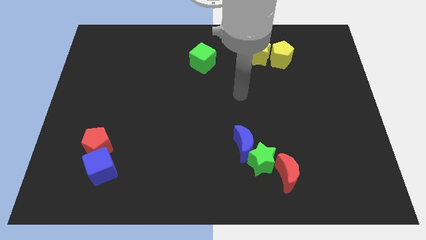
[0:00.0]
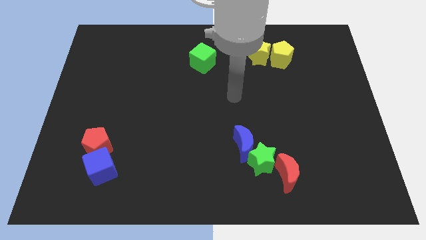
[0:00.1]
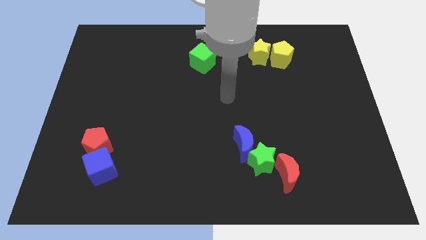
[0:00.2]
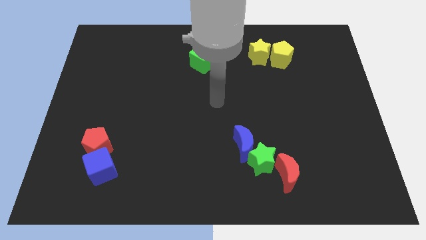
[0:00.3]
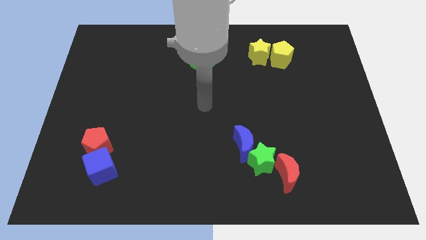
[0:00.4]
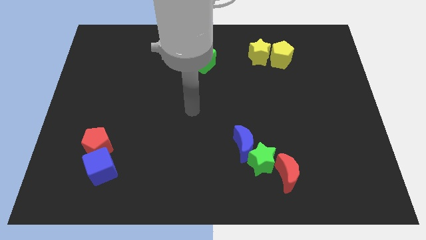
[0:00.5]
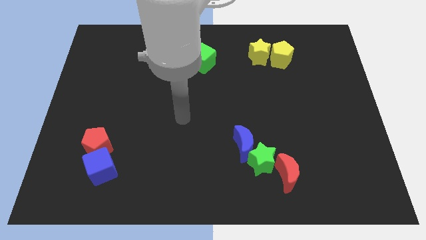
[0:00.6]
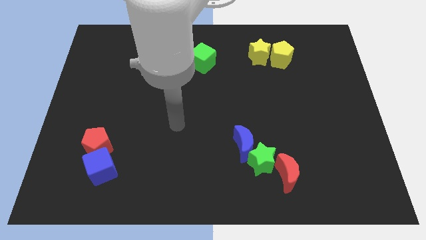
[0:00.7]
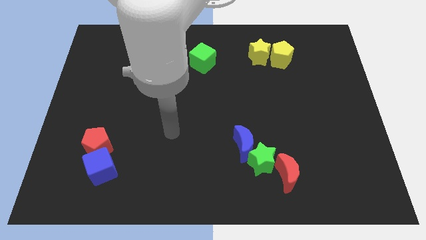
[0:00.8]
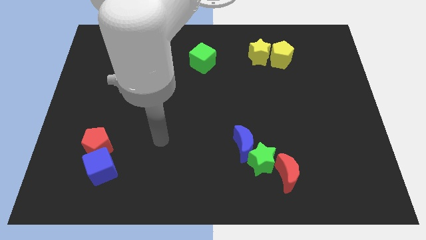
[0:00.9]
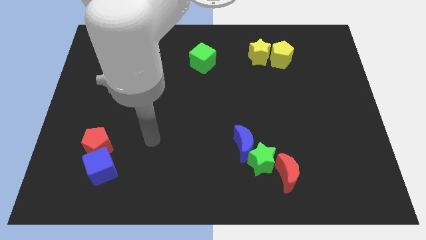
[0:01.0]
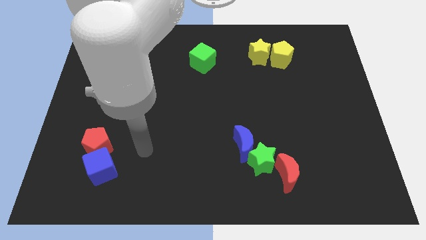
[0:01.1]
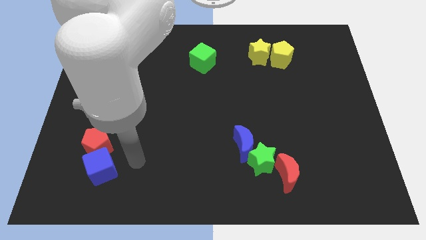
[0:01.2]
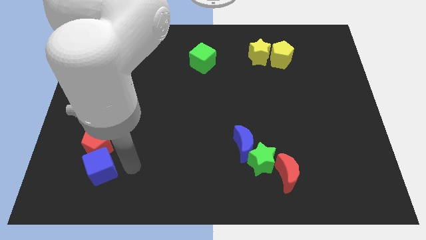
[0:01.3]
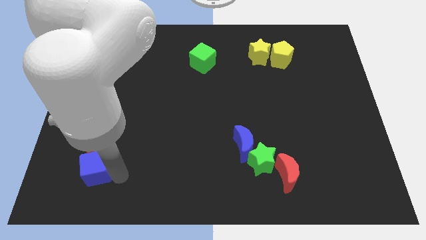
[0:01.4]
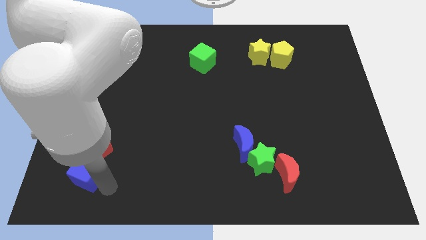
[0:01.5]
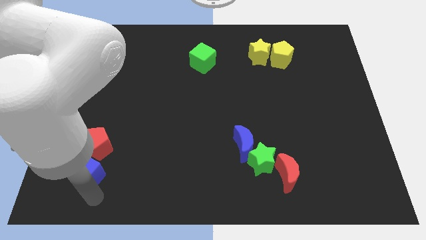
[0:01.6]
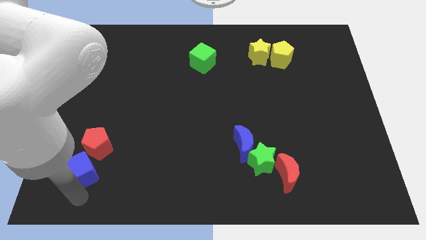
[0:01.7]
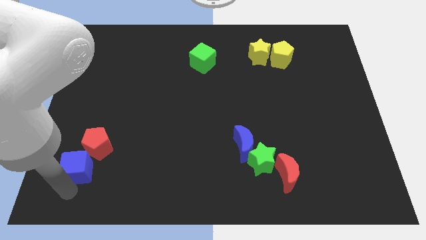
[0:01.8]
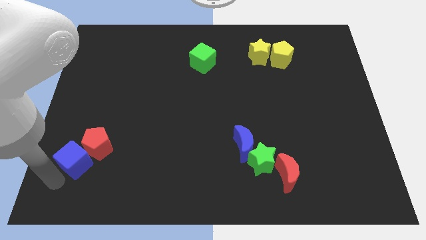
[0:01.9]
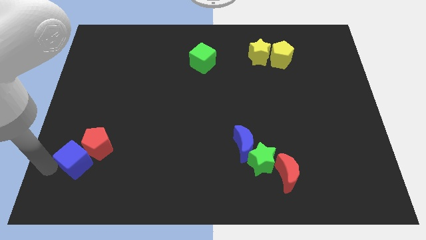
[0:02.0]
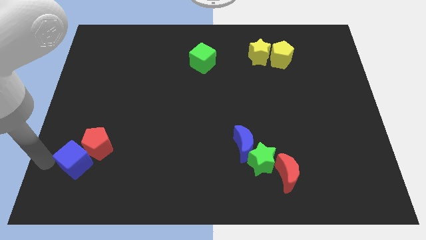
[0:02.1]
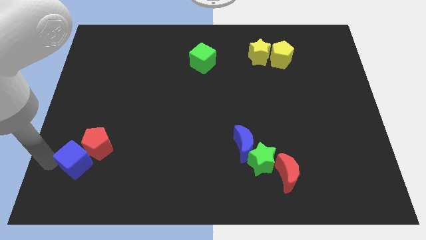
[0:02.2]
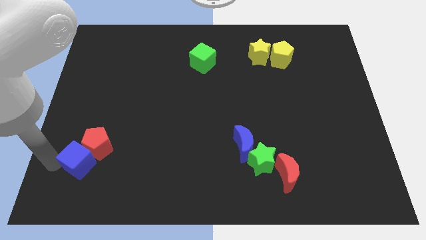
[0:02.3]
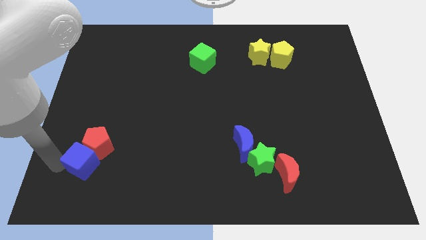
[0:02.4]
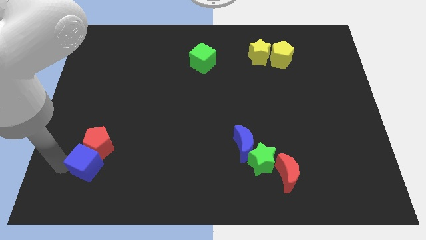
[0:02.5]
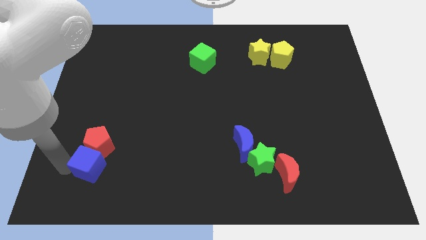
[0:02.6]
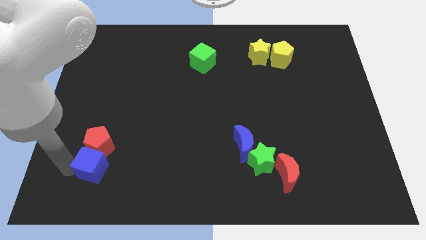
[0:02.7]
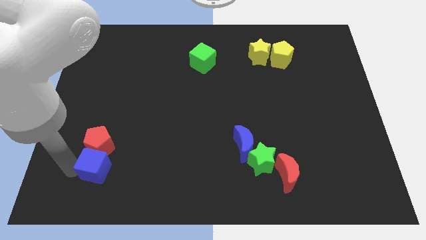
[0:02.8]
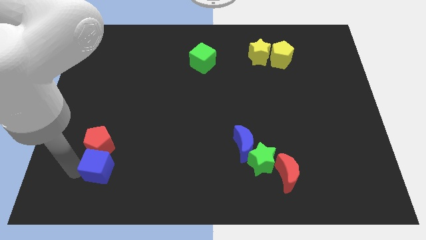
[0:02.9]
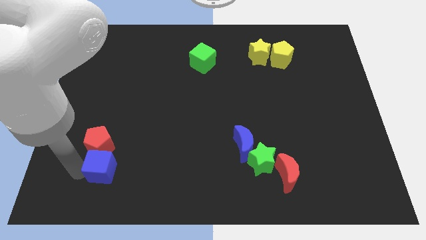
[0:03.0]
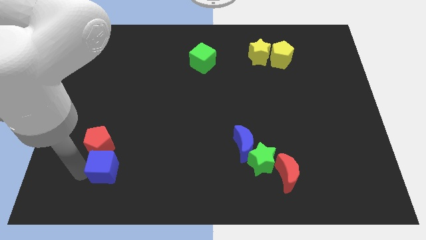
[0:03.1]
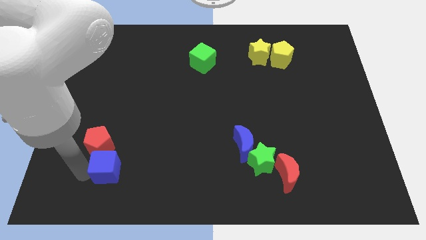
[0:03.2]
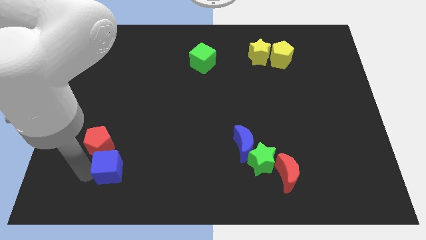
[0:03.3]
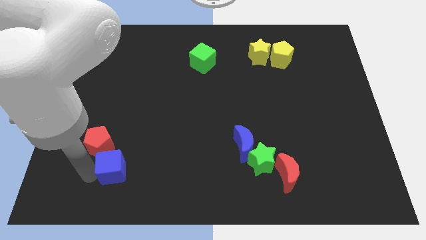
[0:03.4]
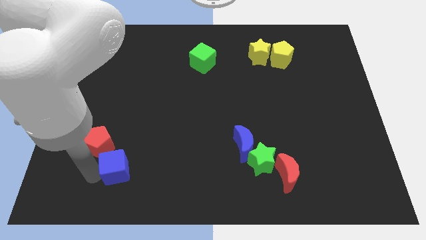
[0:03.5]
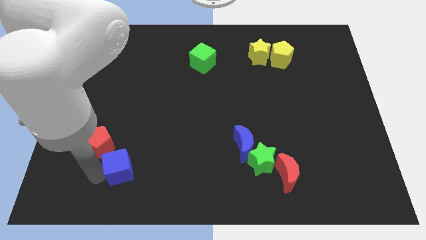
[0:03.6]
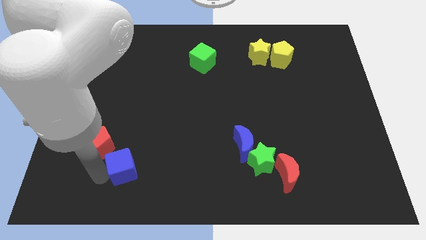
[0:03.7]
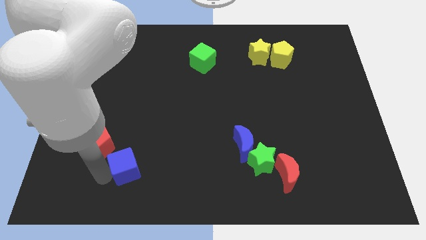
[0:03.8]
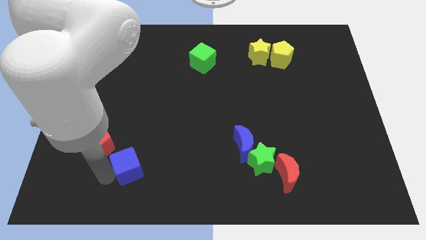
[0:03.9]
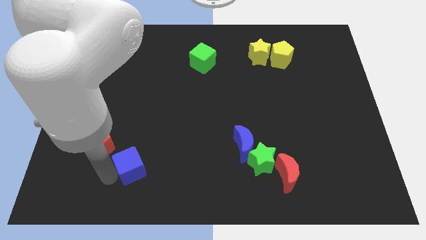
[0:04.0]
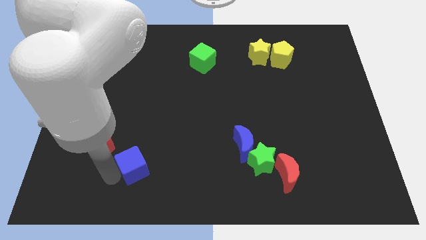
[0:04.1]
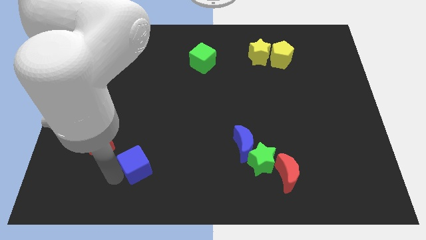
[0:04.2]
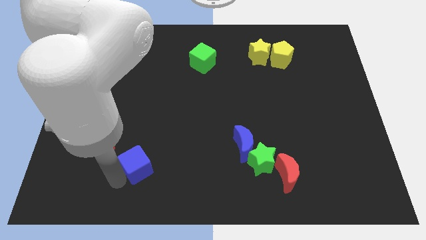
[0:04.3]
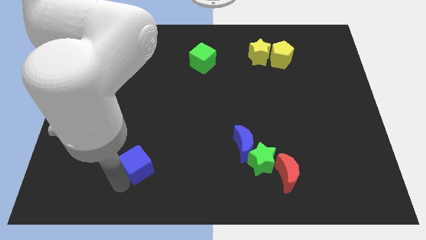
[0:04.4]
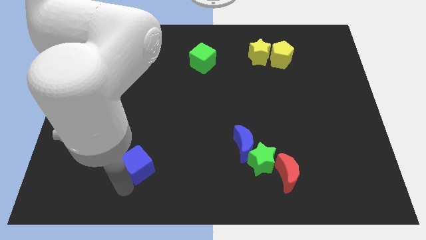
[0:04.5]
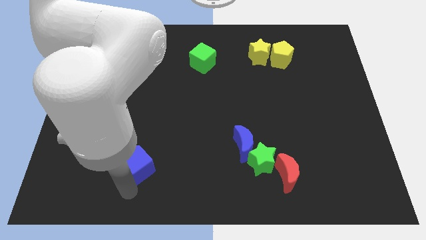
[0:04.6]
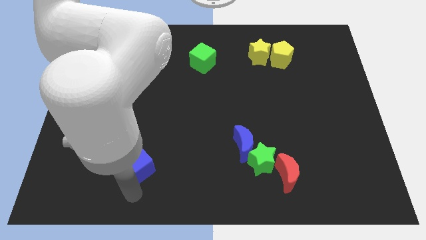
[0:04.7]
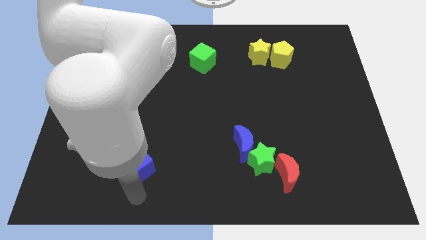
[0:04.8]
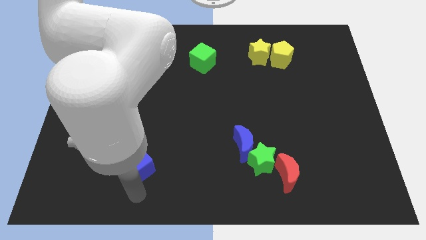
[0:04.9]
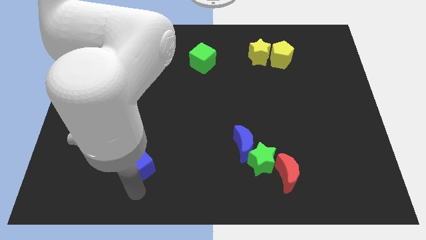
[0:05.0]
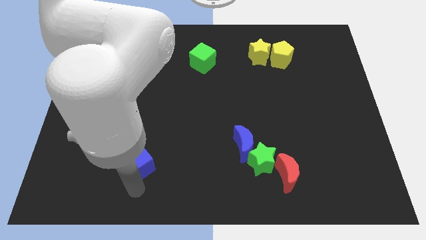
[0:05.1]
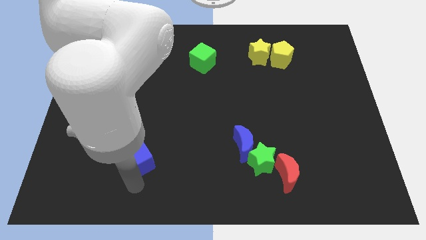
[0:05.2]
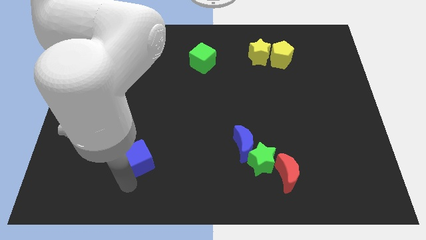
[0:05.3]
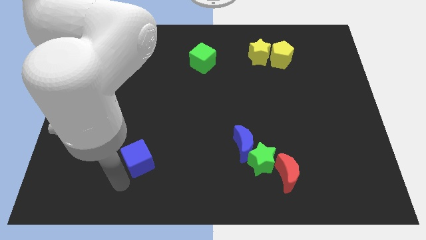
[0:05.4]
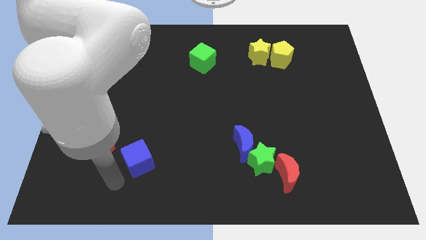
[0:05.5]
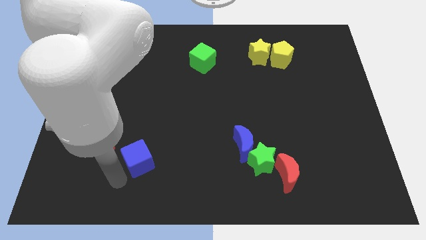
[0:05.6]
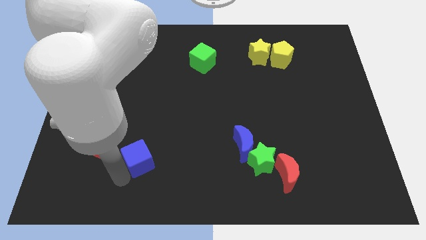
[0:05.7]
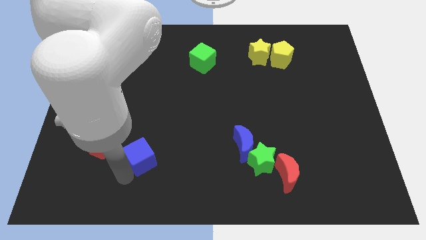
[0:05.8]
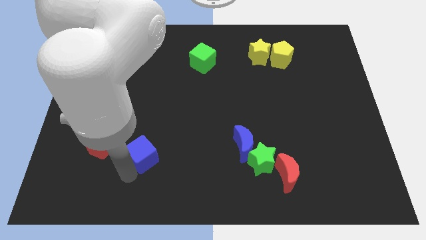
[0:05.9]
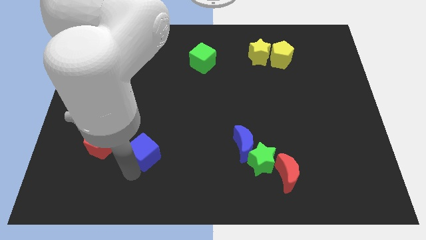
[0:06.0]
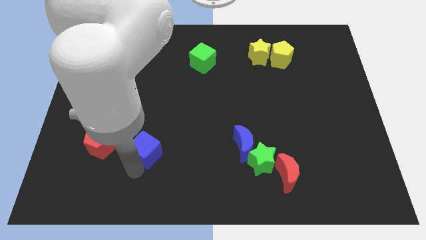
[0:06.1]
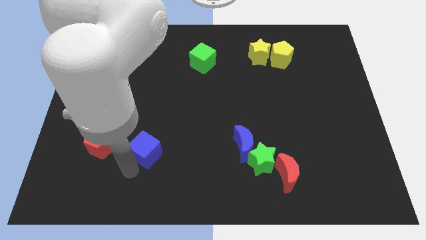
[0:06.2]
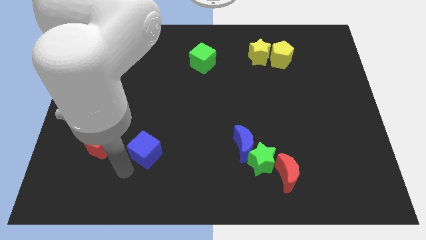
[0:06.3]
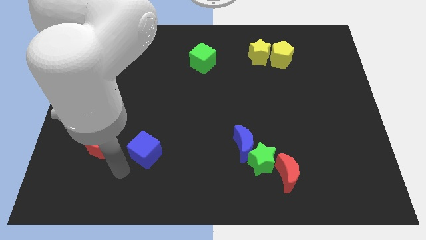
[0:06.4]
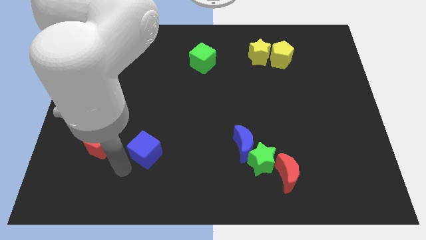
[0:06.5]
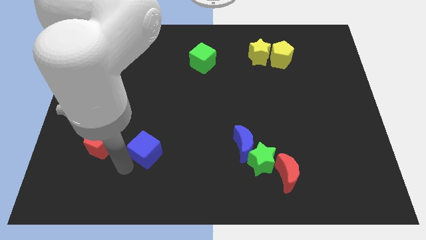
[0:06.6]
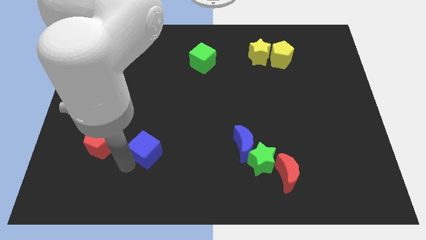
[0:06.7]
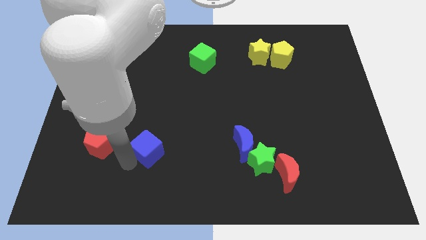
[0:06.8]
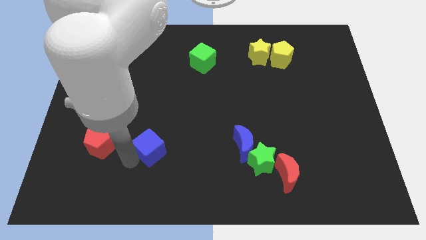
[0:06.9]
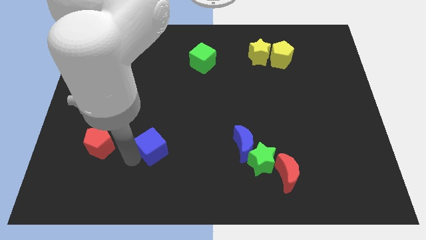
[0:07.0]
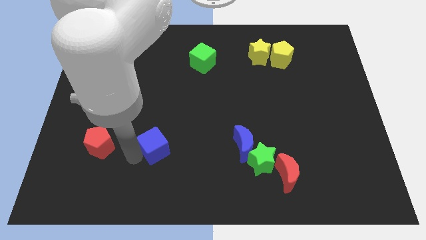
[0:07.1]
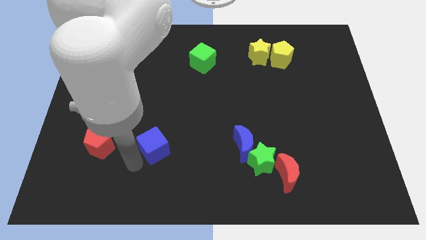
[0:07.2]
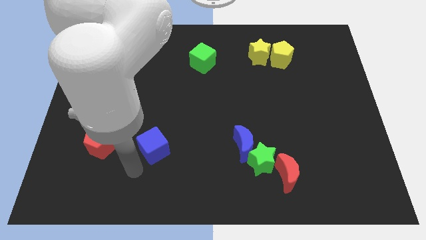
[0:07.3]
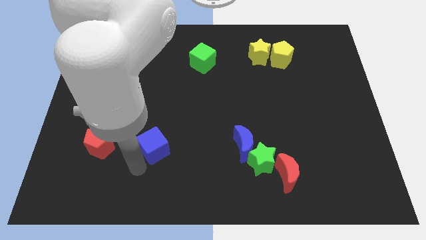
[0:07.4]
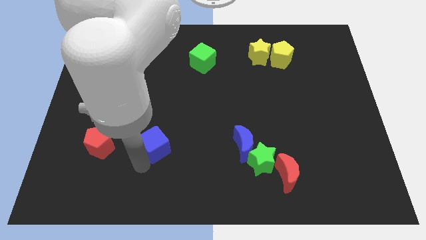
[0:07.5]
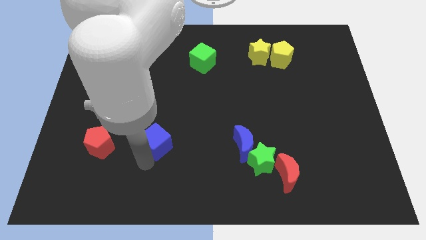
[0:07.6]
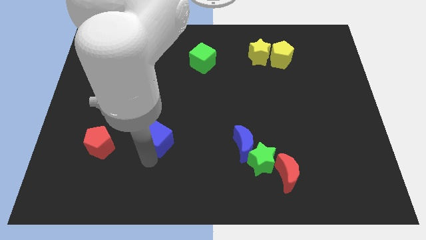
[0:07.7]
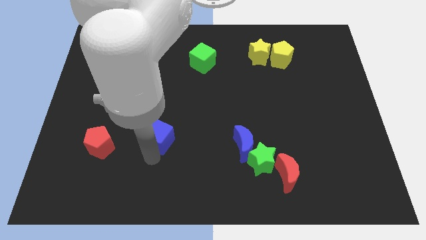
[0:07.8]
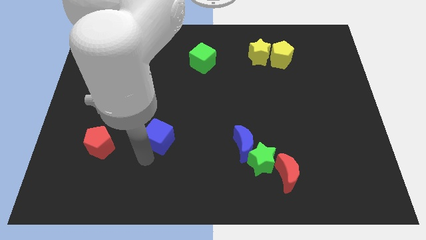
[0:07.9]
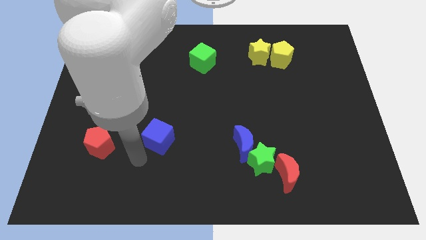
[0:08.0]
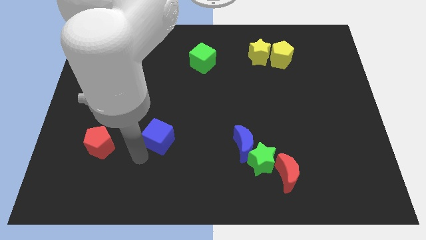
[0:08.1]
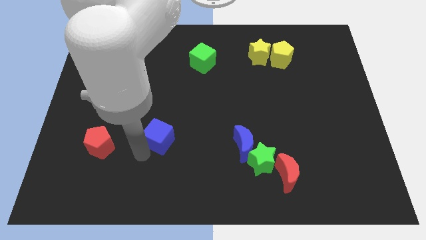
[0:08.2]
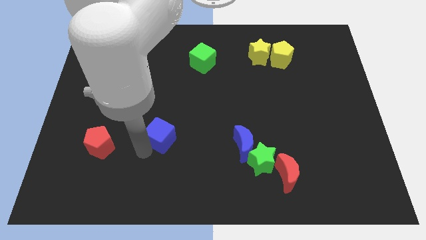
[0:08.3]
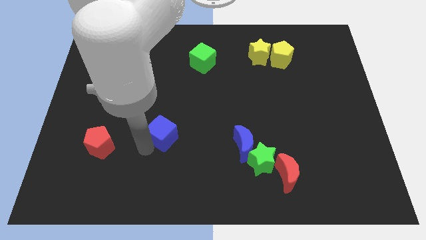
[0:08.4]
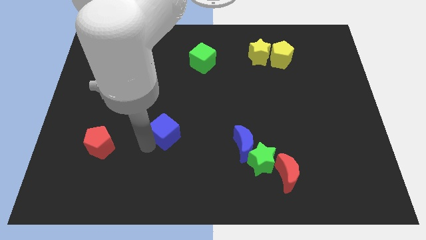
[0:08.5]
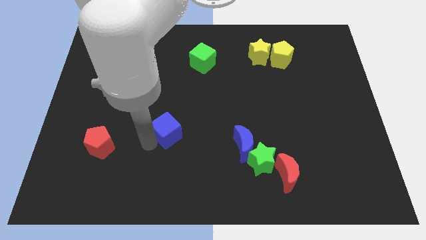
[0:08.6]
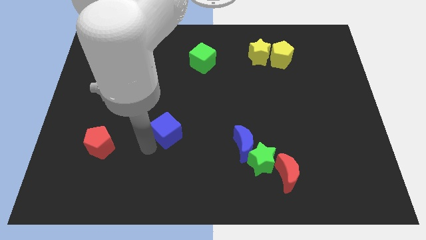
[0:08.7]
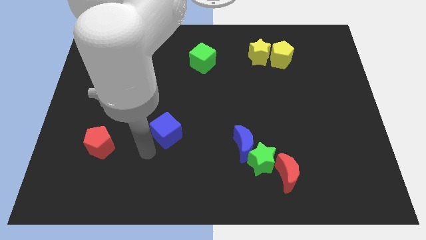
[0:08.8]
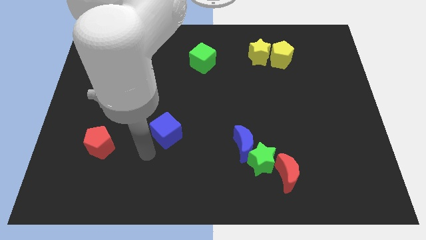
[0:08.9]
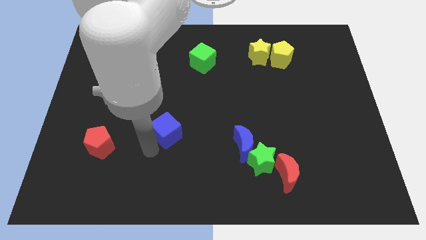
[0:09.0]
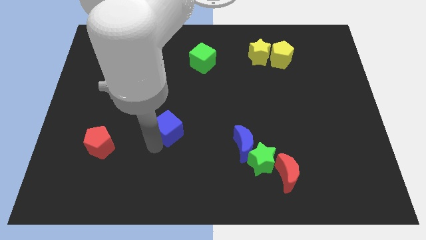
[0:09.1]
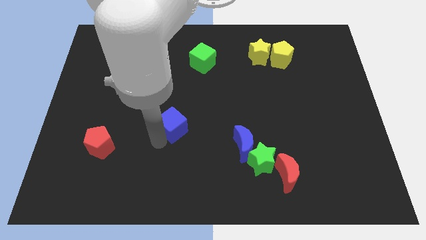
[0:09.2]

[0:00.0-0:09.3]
push the blue cube to the middle of the board
